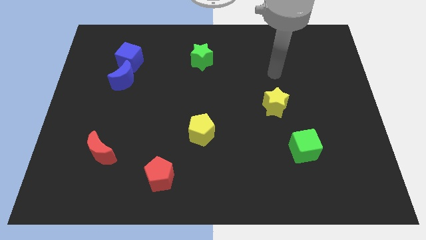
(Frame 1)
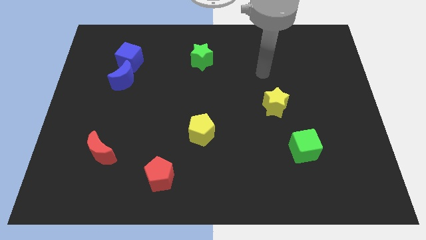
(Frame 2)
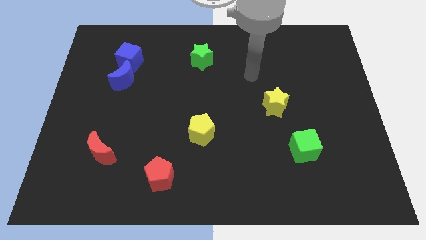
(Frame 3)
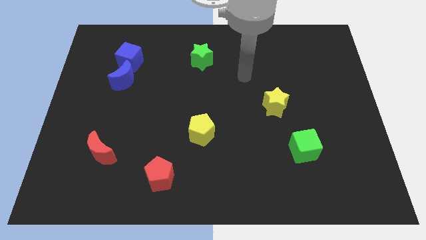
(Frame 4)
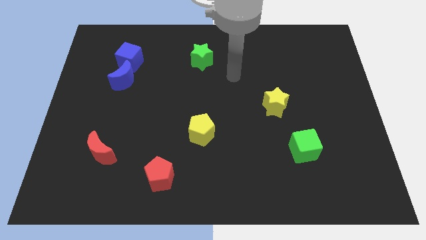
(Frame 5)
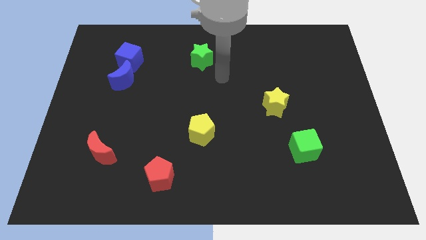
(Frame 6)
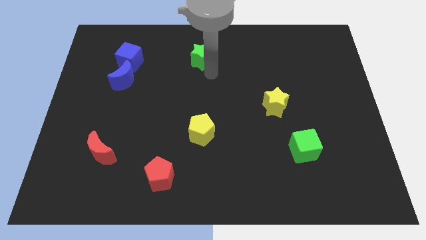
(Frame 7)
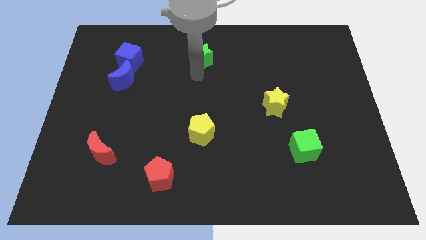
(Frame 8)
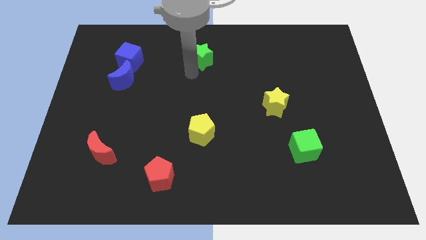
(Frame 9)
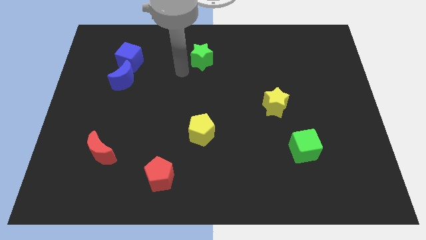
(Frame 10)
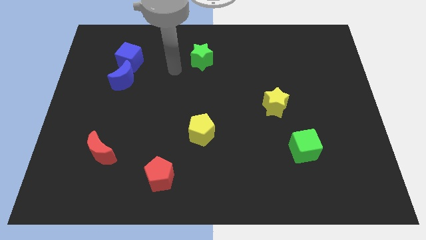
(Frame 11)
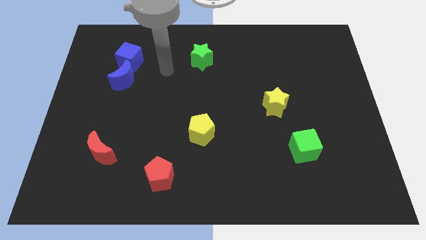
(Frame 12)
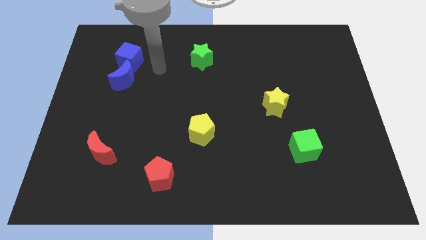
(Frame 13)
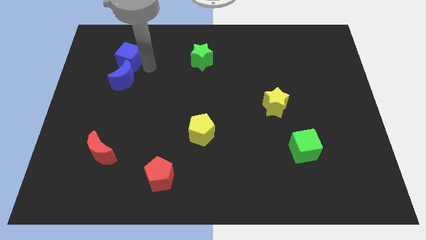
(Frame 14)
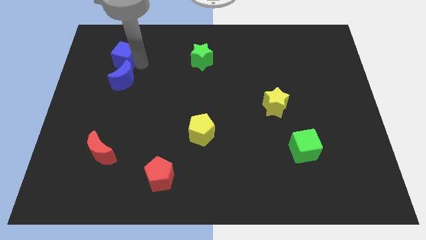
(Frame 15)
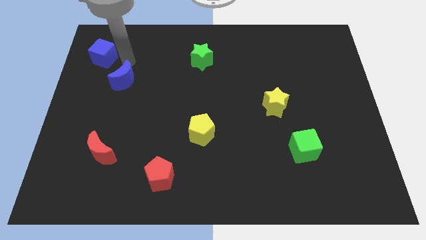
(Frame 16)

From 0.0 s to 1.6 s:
separate the blue moon from the blue cube

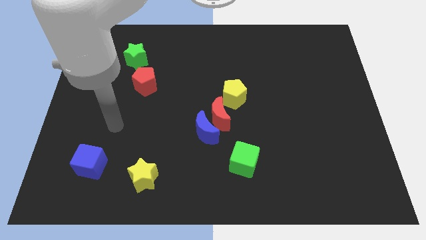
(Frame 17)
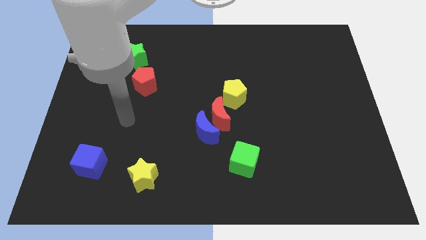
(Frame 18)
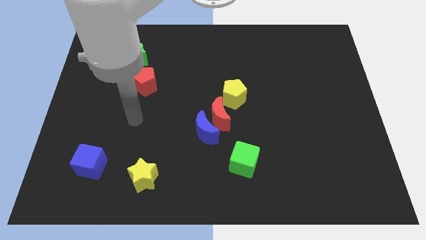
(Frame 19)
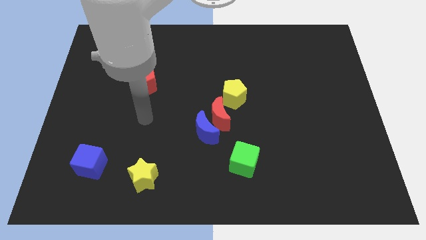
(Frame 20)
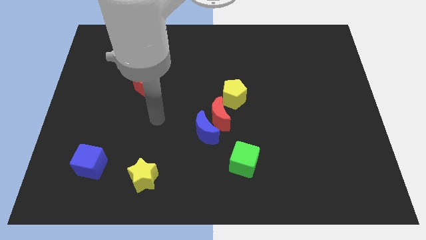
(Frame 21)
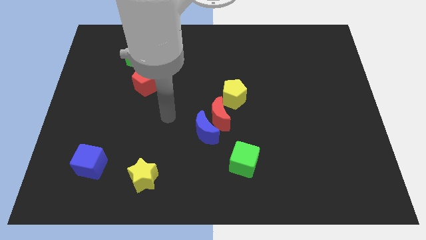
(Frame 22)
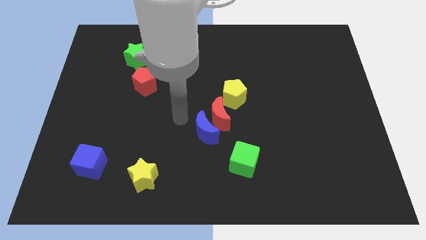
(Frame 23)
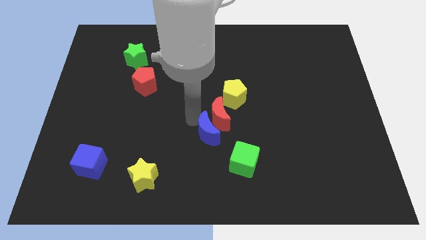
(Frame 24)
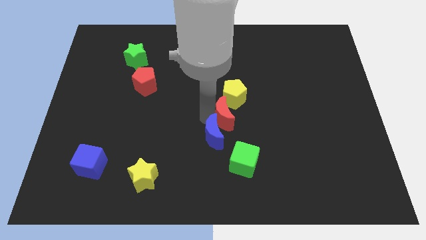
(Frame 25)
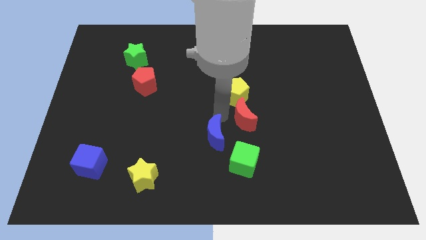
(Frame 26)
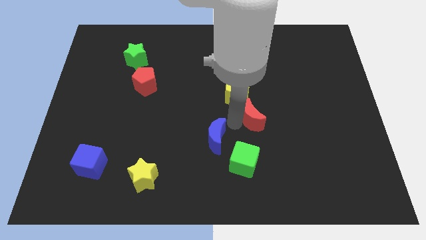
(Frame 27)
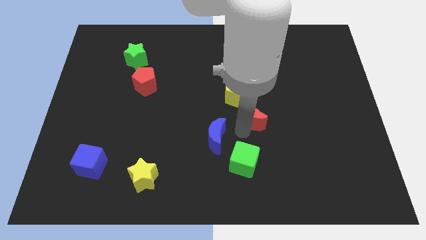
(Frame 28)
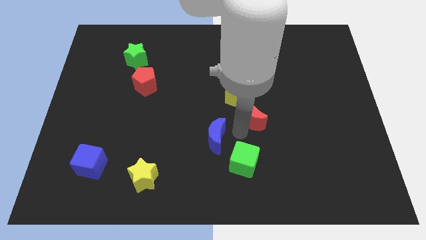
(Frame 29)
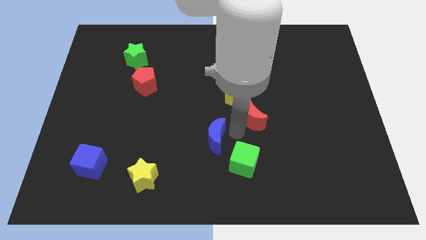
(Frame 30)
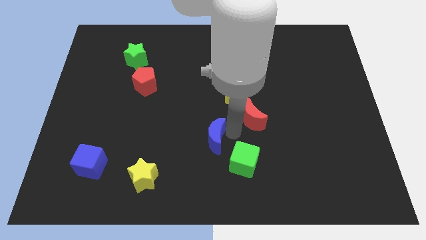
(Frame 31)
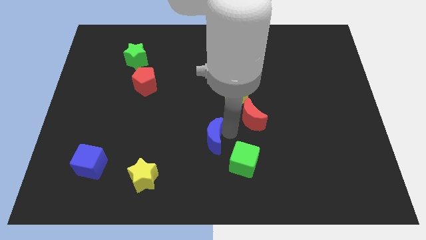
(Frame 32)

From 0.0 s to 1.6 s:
move the blue moon away from the red moon

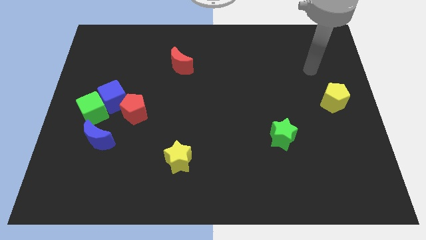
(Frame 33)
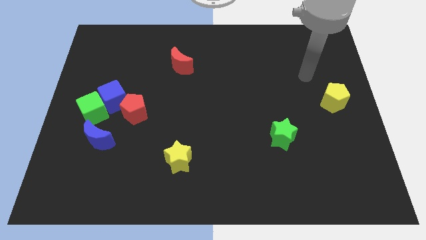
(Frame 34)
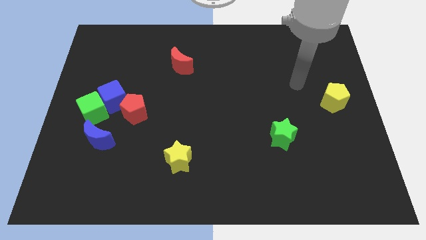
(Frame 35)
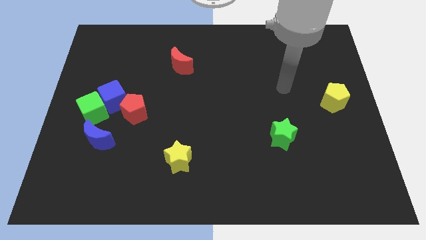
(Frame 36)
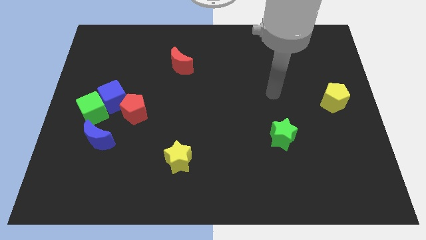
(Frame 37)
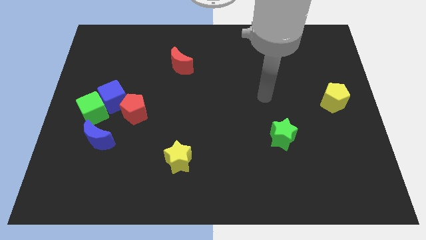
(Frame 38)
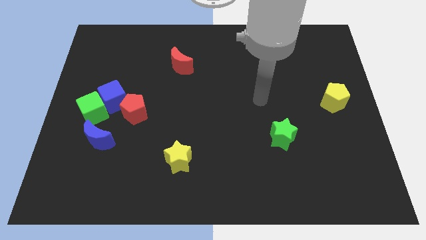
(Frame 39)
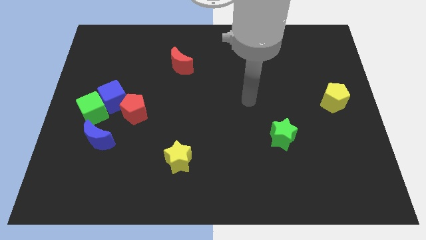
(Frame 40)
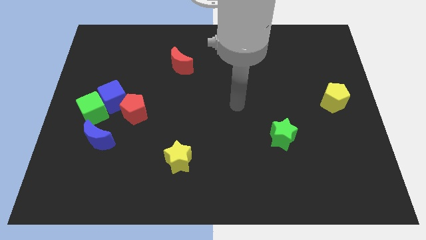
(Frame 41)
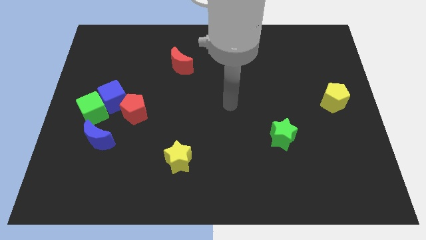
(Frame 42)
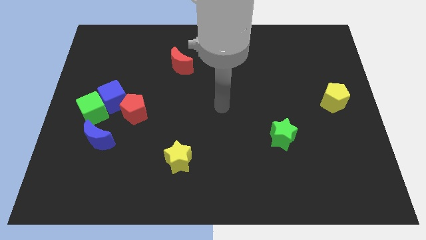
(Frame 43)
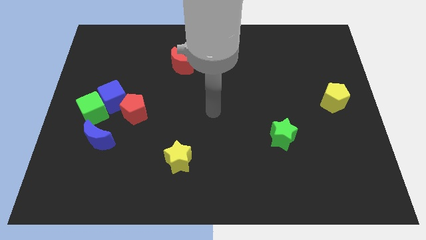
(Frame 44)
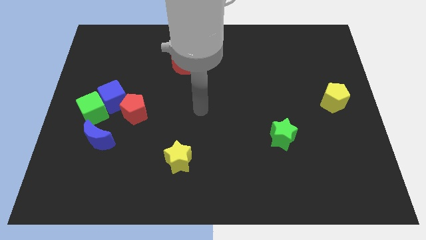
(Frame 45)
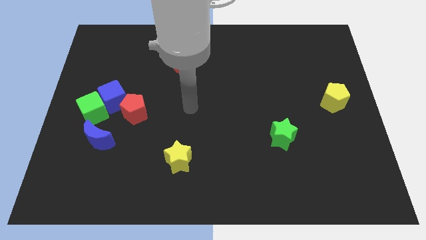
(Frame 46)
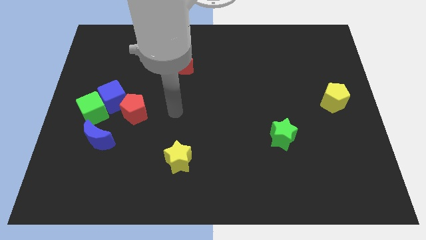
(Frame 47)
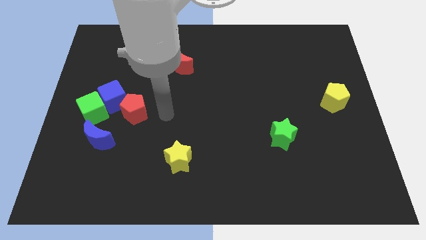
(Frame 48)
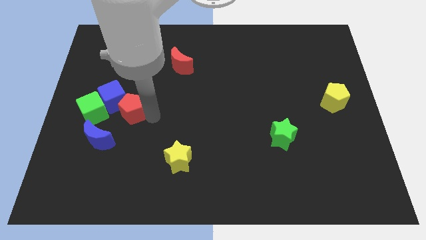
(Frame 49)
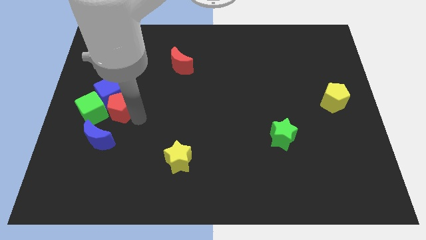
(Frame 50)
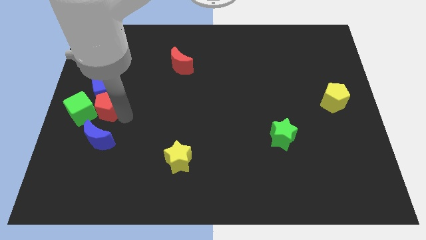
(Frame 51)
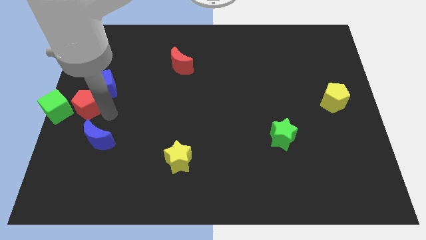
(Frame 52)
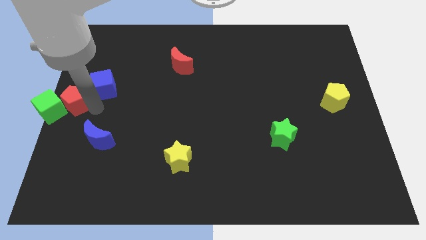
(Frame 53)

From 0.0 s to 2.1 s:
move the blue cube away from the green cube and red pentagon

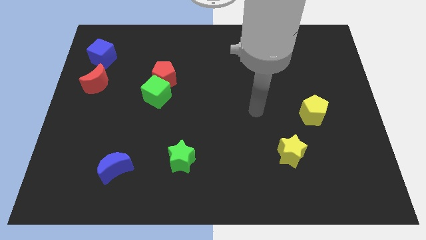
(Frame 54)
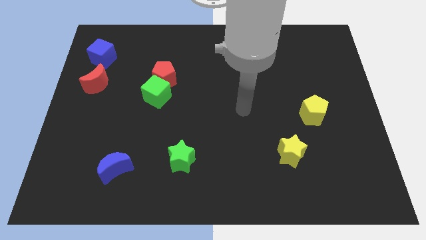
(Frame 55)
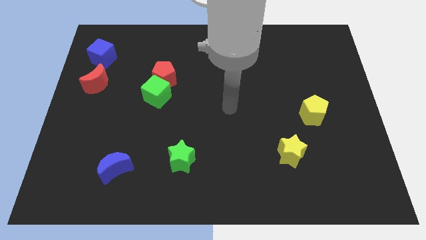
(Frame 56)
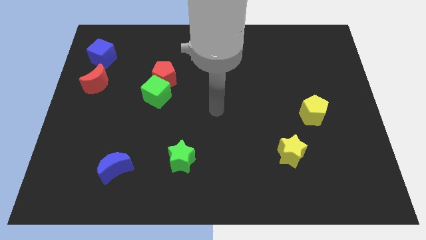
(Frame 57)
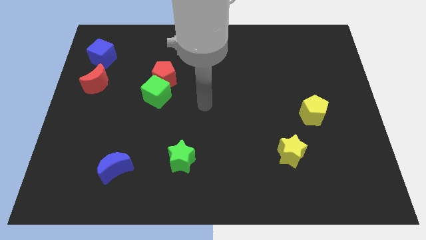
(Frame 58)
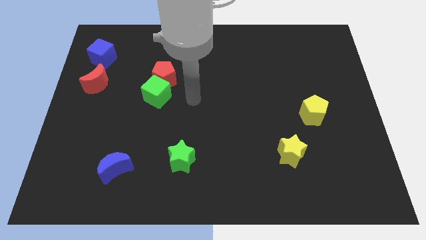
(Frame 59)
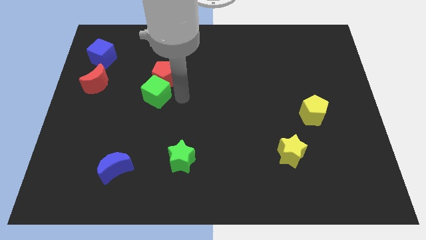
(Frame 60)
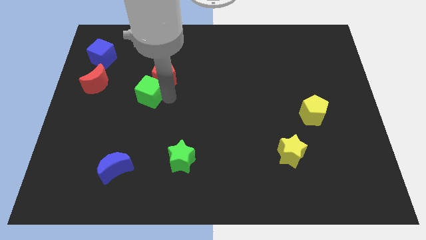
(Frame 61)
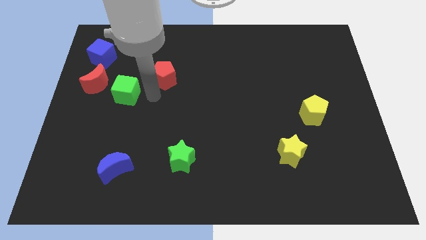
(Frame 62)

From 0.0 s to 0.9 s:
move the red pentagon away from the green cube

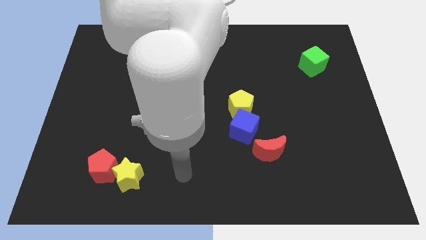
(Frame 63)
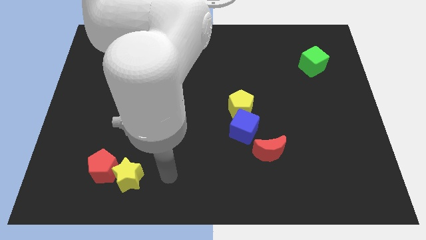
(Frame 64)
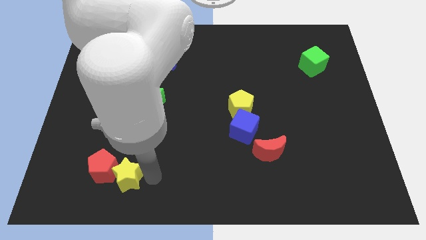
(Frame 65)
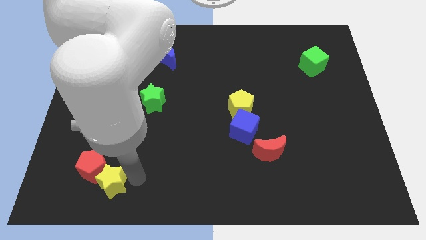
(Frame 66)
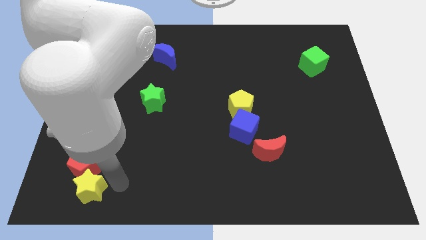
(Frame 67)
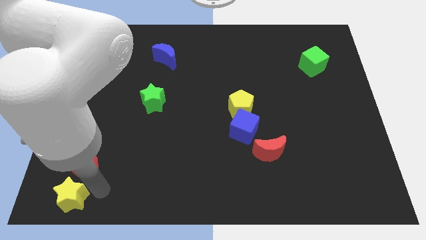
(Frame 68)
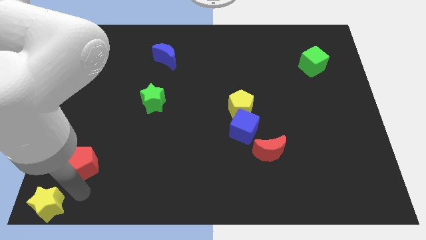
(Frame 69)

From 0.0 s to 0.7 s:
move the red pentagon away from the yellow star

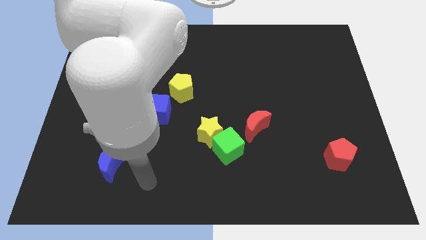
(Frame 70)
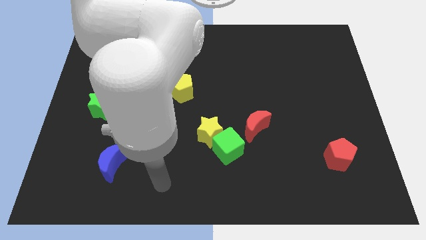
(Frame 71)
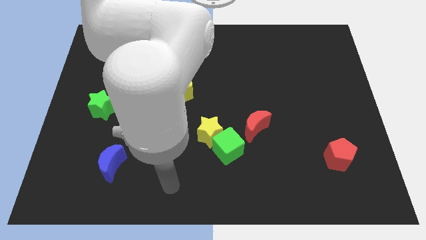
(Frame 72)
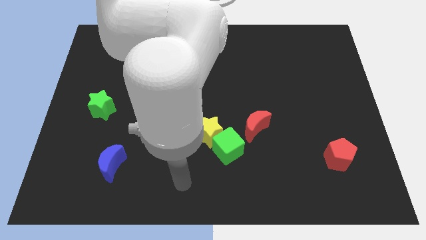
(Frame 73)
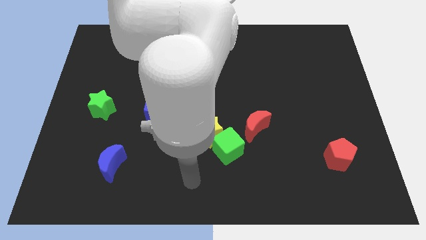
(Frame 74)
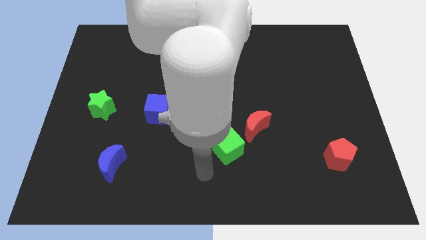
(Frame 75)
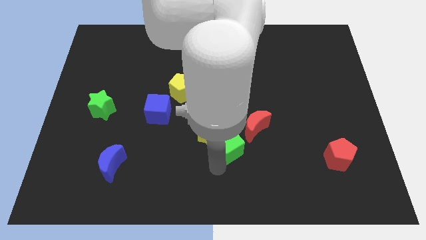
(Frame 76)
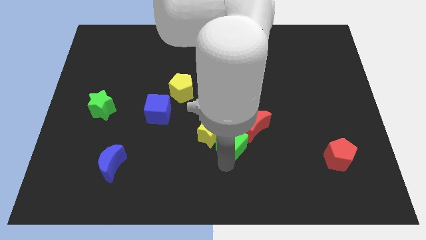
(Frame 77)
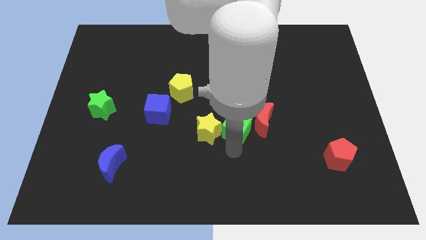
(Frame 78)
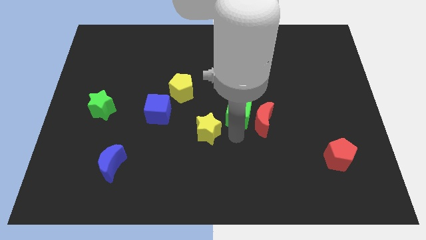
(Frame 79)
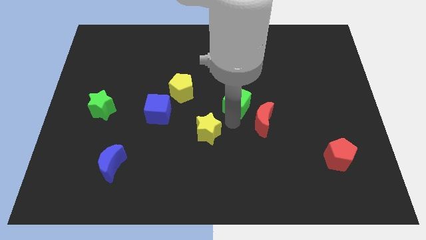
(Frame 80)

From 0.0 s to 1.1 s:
separate the yellow star from the green cube

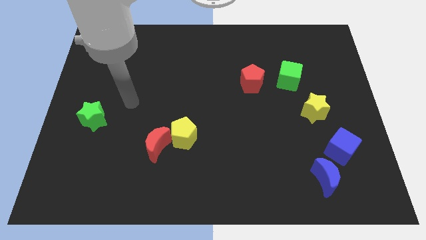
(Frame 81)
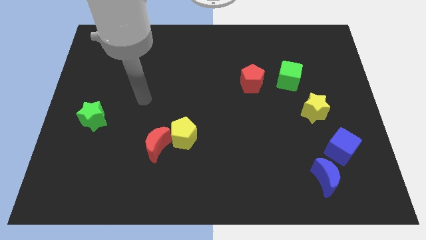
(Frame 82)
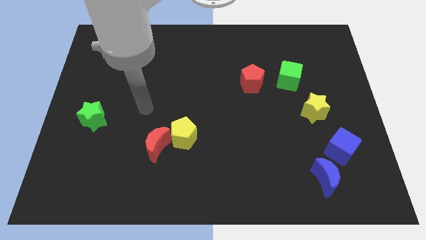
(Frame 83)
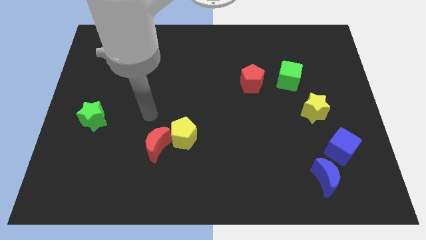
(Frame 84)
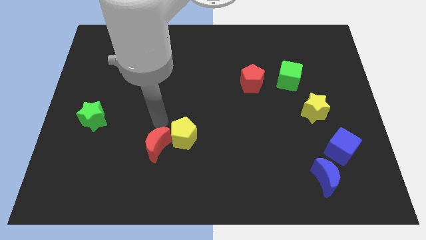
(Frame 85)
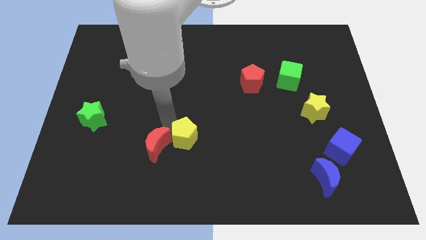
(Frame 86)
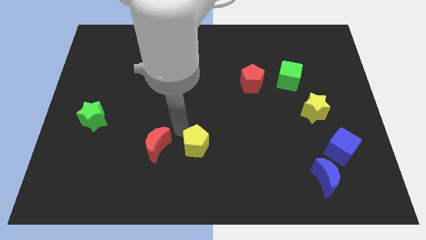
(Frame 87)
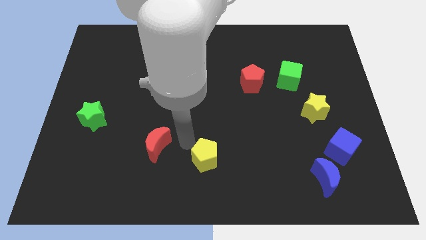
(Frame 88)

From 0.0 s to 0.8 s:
separate the red moon from the yellow pentagon

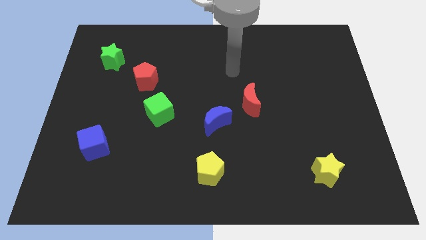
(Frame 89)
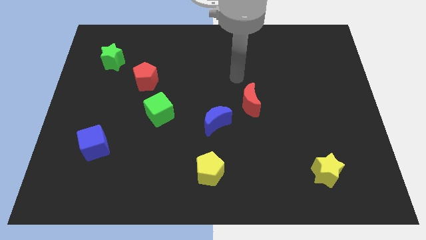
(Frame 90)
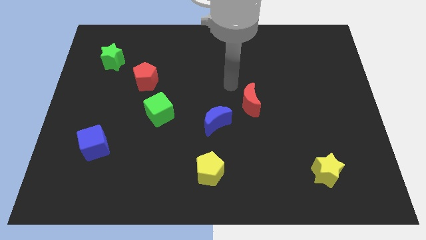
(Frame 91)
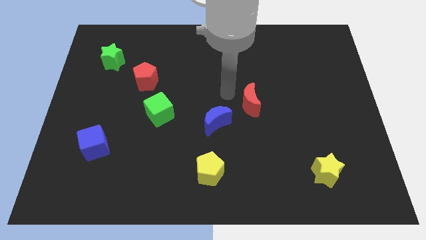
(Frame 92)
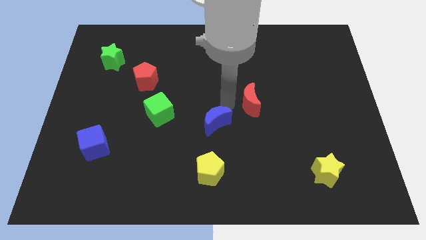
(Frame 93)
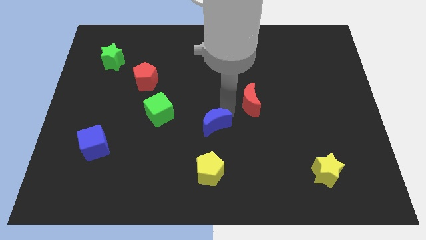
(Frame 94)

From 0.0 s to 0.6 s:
pull the red moon apart from the blue moon

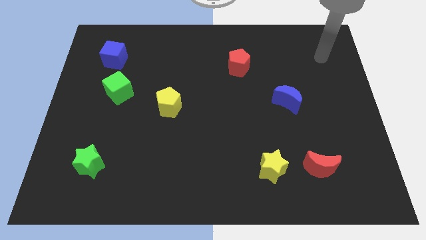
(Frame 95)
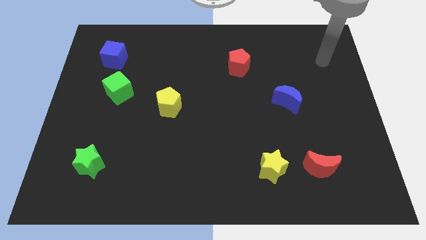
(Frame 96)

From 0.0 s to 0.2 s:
separate the red moon from the yellow star
